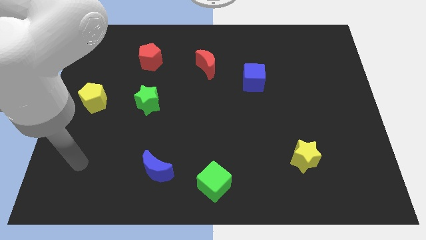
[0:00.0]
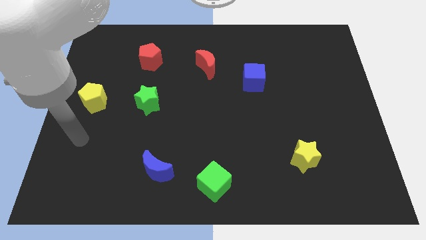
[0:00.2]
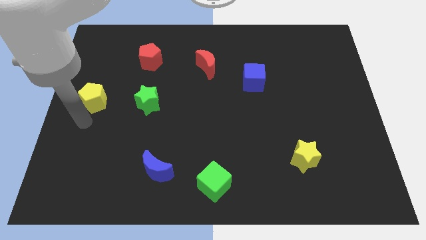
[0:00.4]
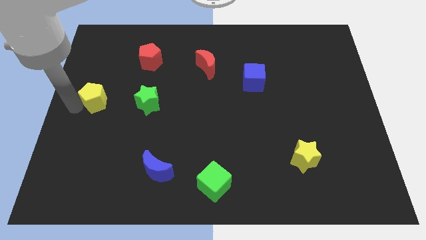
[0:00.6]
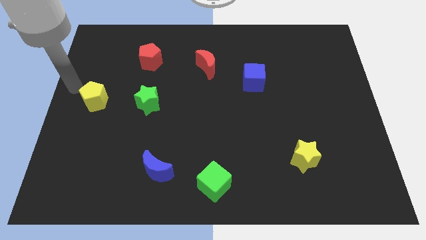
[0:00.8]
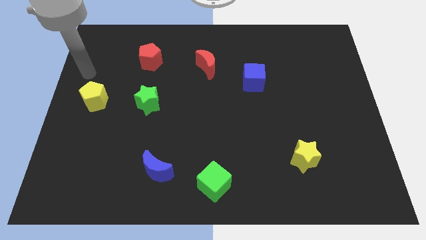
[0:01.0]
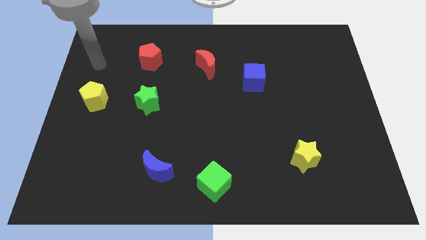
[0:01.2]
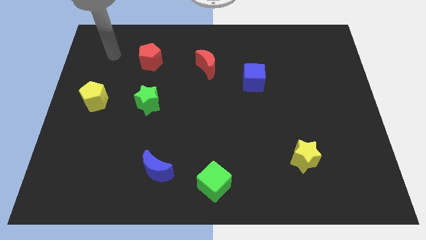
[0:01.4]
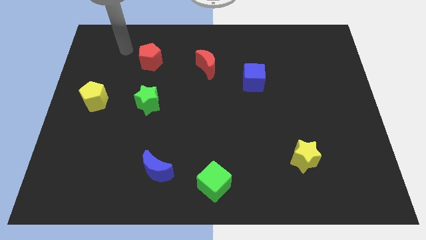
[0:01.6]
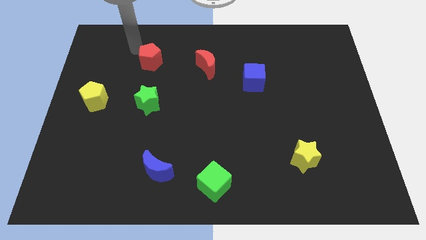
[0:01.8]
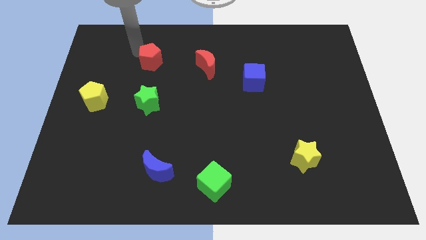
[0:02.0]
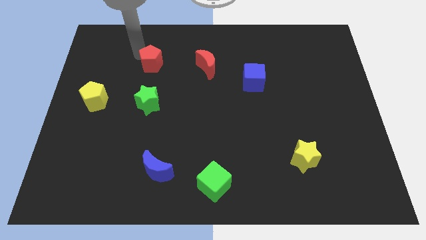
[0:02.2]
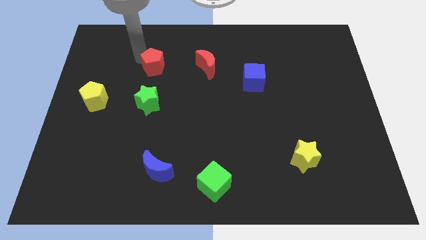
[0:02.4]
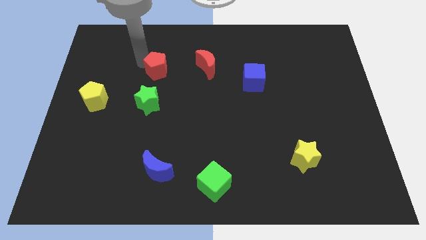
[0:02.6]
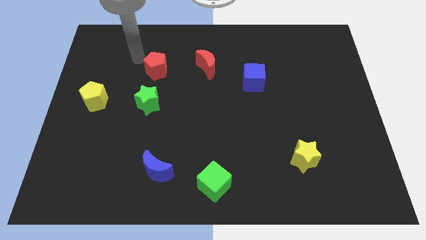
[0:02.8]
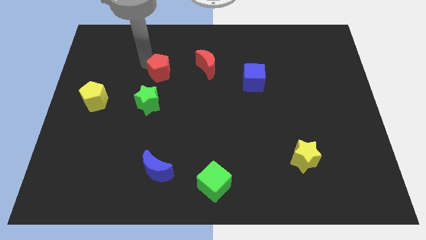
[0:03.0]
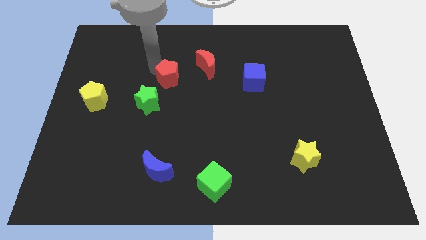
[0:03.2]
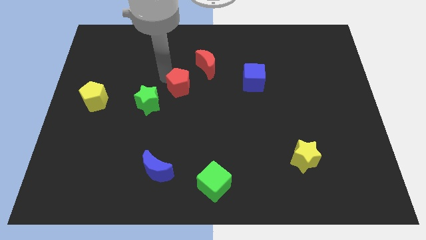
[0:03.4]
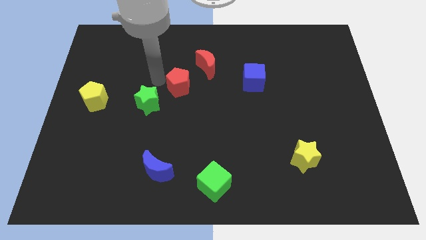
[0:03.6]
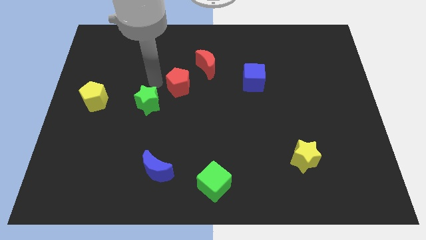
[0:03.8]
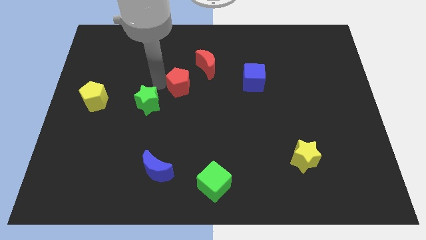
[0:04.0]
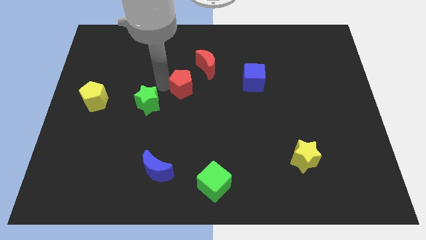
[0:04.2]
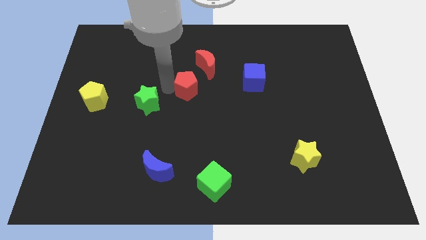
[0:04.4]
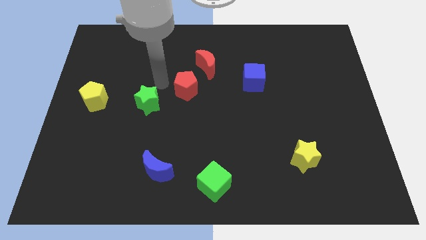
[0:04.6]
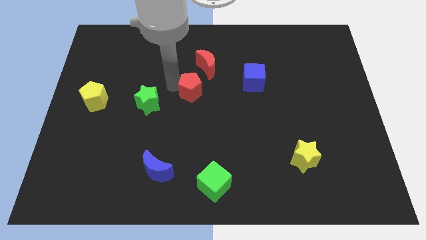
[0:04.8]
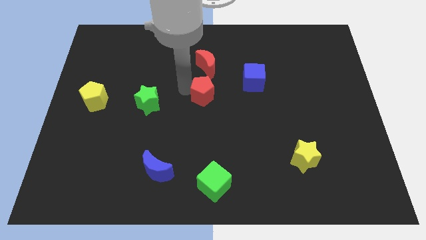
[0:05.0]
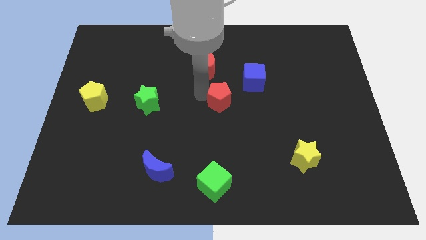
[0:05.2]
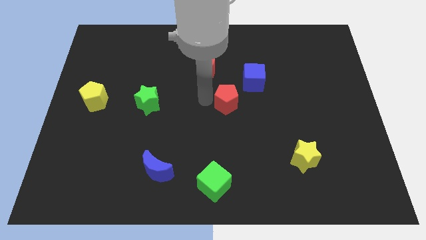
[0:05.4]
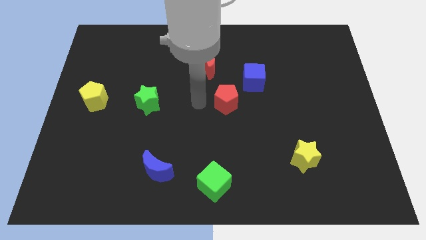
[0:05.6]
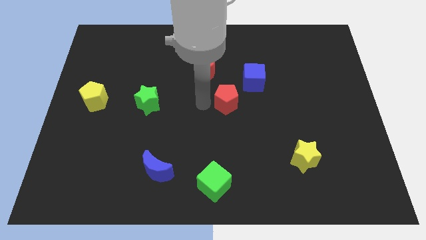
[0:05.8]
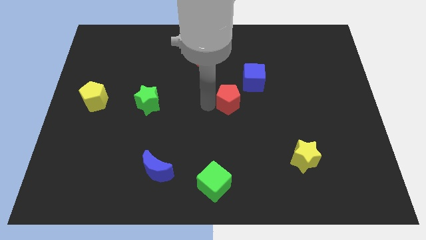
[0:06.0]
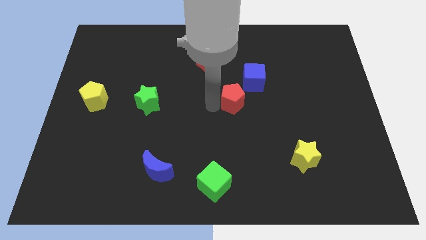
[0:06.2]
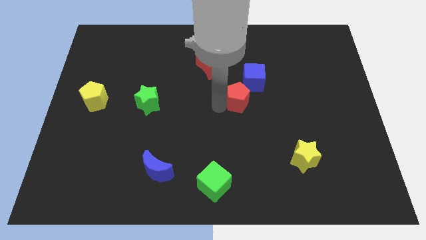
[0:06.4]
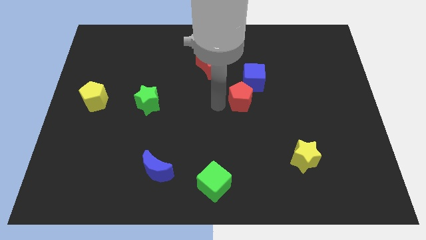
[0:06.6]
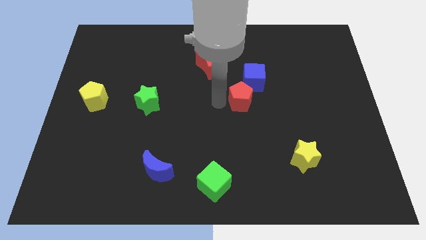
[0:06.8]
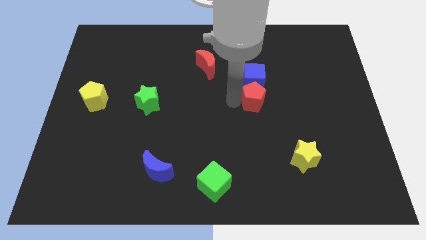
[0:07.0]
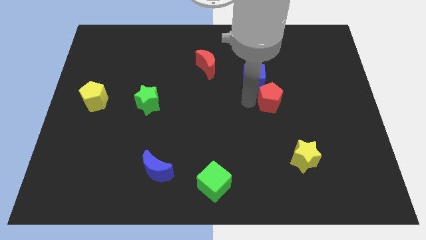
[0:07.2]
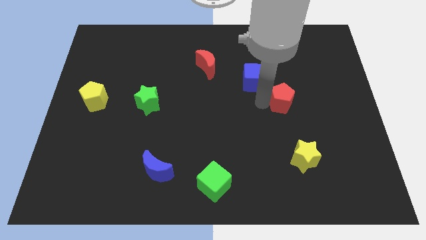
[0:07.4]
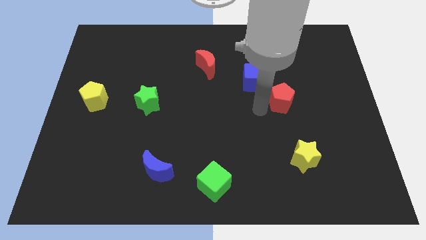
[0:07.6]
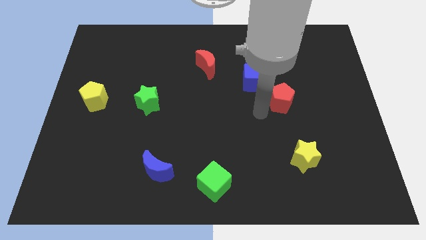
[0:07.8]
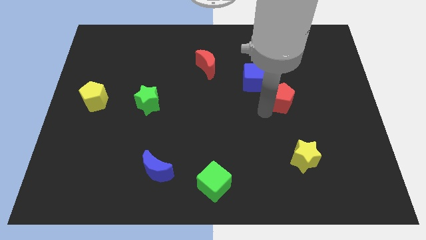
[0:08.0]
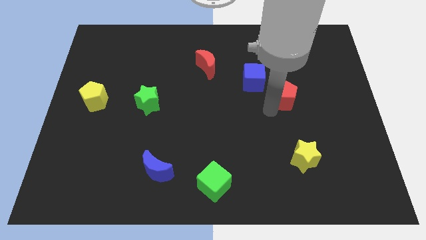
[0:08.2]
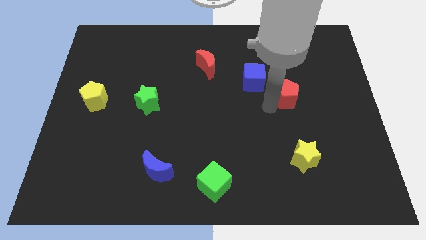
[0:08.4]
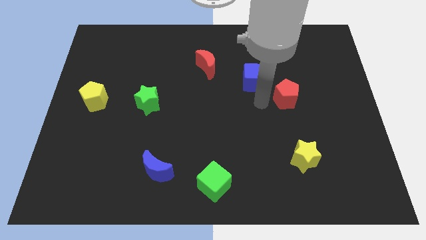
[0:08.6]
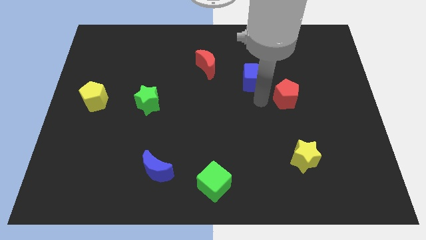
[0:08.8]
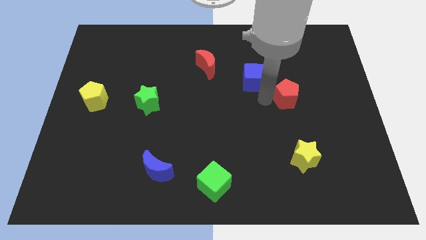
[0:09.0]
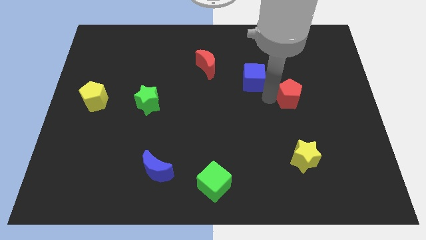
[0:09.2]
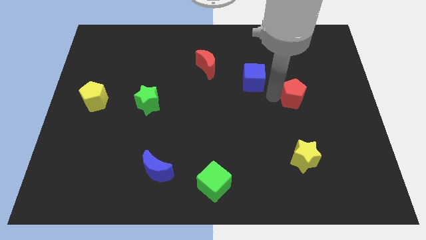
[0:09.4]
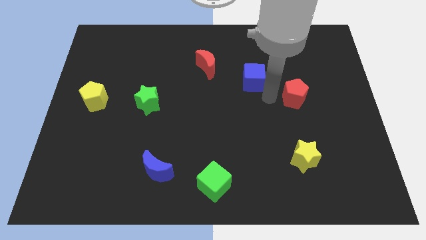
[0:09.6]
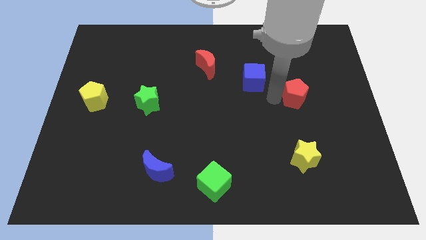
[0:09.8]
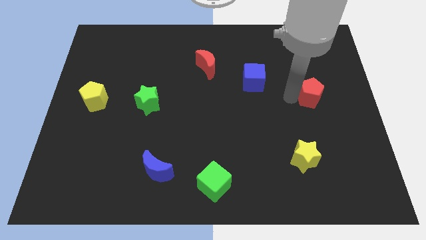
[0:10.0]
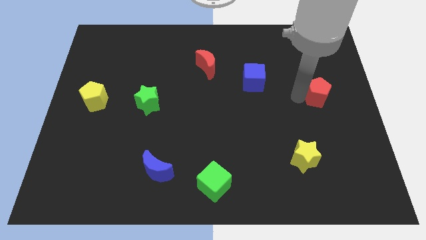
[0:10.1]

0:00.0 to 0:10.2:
put the red pentagon to the right side

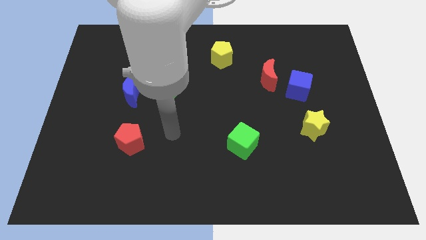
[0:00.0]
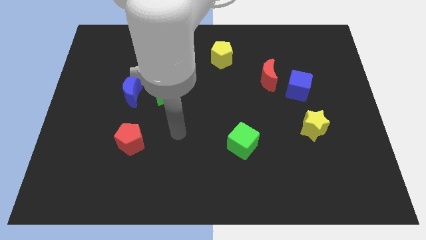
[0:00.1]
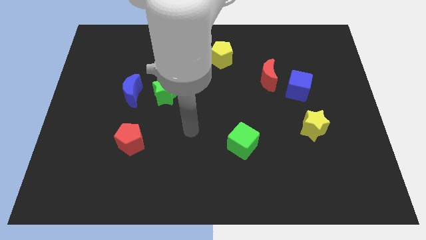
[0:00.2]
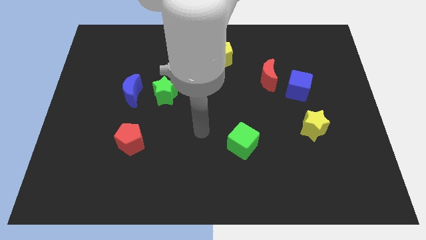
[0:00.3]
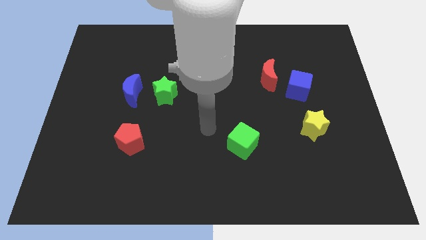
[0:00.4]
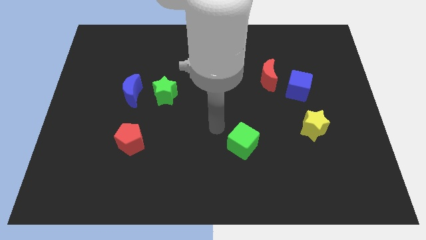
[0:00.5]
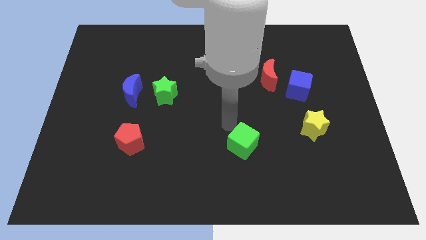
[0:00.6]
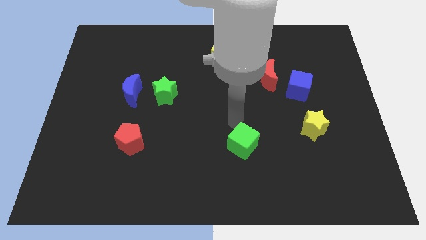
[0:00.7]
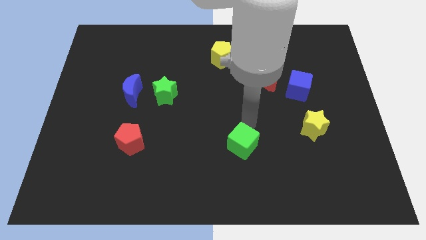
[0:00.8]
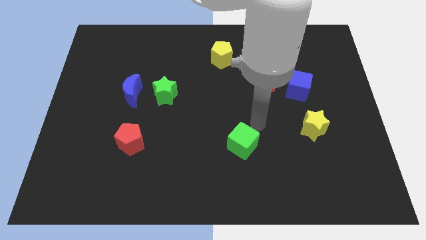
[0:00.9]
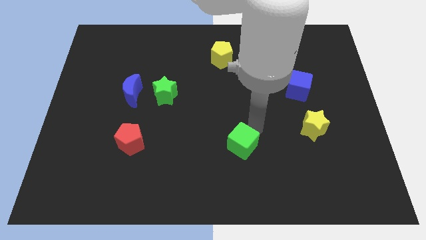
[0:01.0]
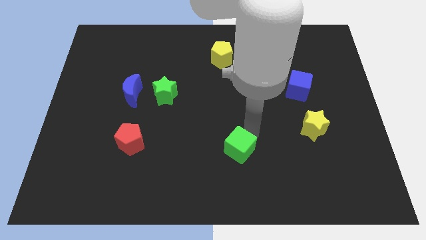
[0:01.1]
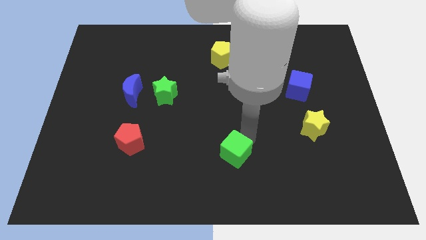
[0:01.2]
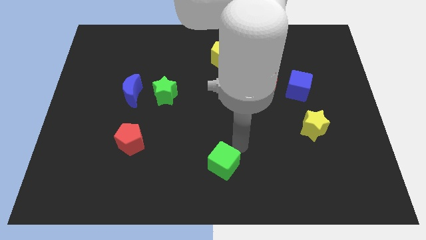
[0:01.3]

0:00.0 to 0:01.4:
slide the green cube to the bottom side

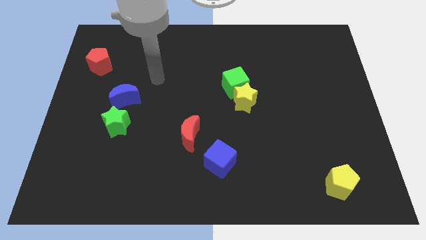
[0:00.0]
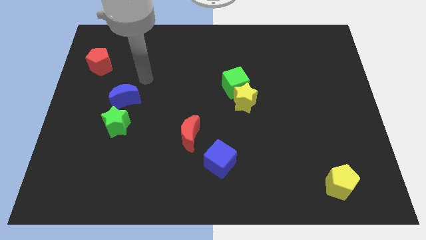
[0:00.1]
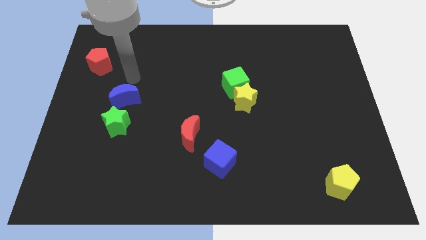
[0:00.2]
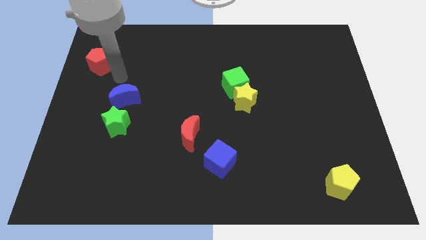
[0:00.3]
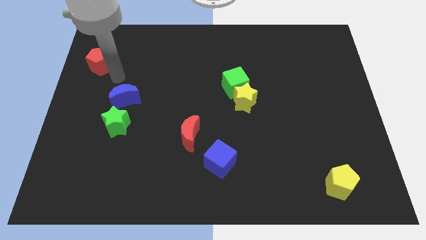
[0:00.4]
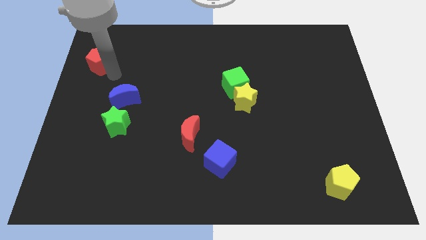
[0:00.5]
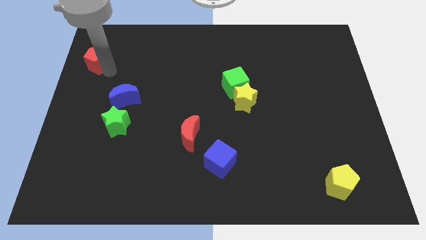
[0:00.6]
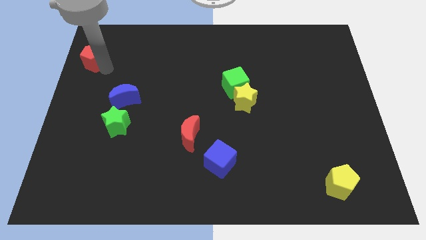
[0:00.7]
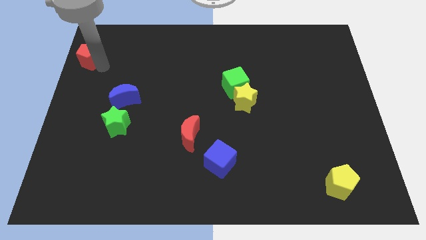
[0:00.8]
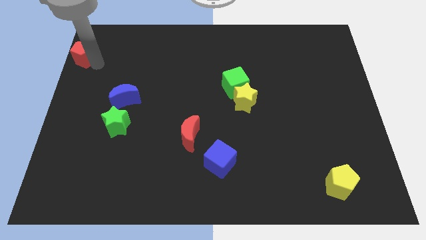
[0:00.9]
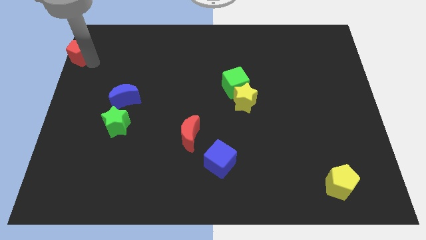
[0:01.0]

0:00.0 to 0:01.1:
move the red pentagon to the upper left corner
